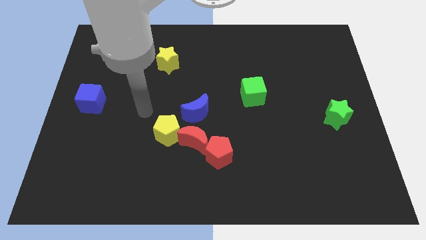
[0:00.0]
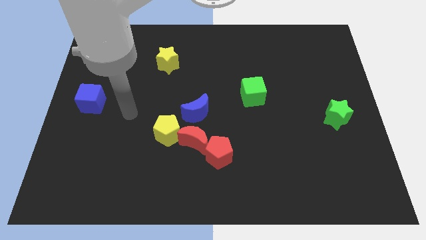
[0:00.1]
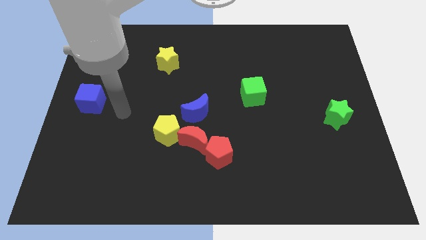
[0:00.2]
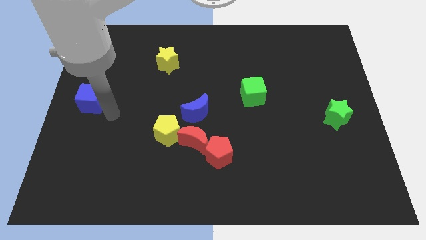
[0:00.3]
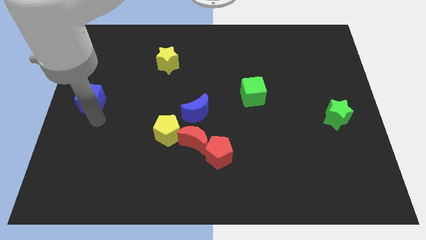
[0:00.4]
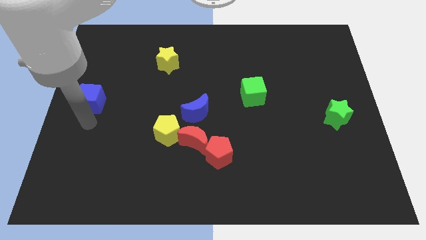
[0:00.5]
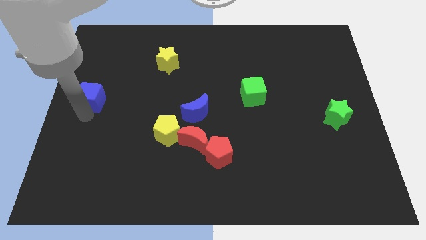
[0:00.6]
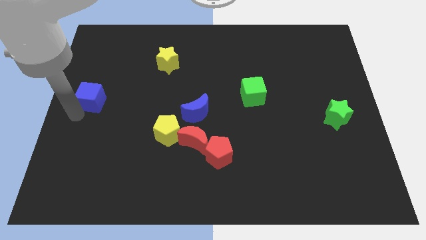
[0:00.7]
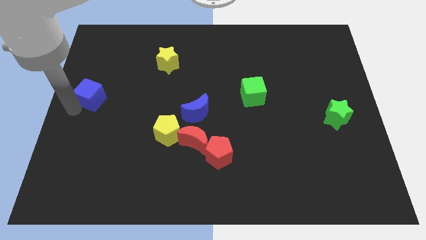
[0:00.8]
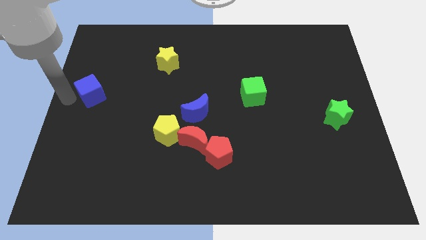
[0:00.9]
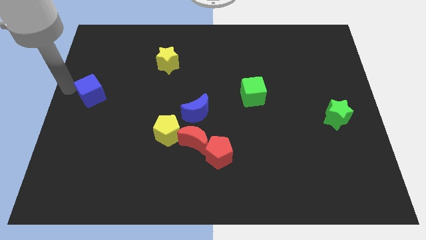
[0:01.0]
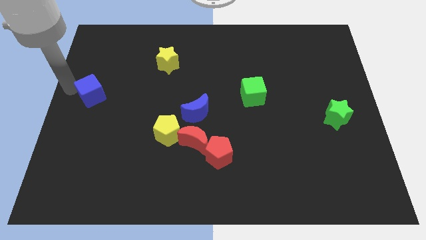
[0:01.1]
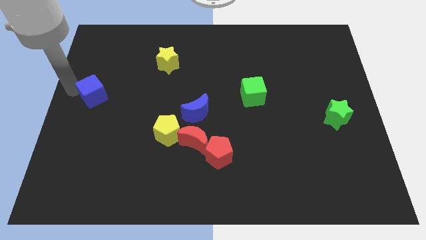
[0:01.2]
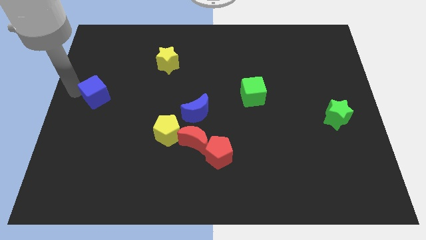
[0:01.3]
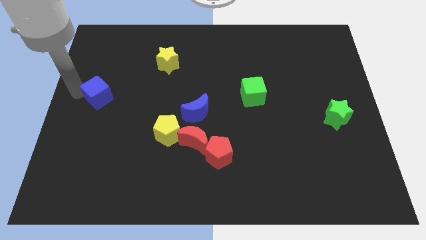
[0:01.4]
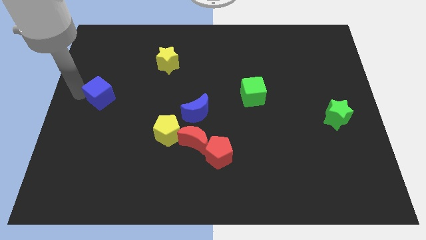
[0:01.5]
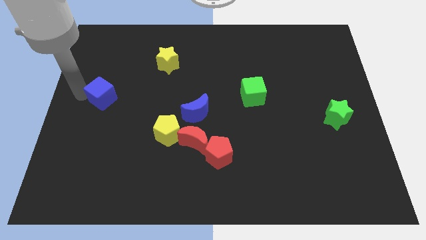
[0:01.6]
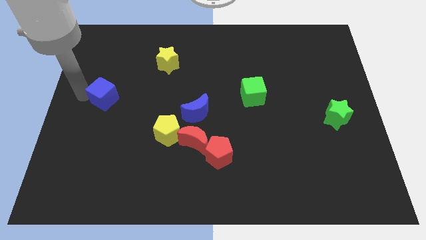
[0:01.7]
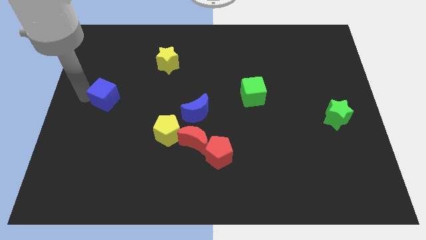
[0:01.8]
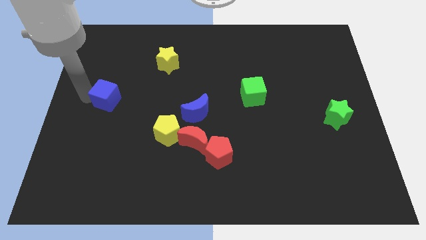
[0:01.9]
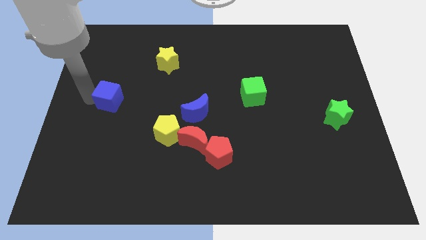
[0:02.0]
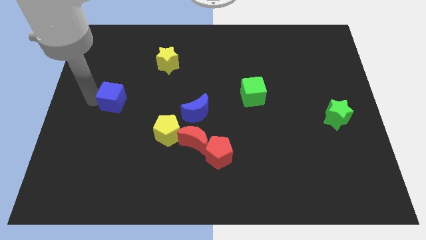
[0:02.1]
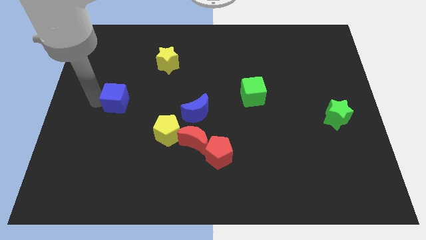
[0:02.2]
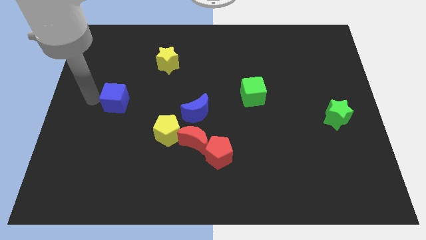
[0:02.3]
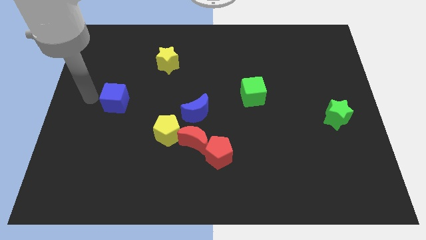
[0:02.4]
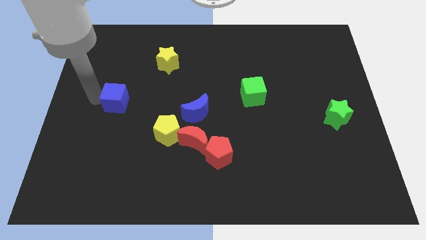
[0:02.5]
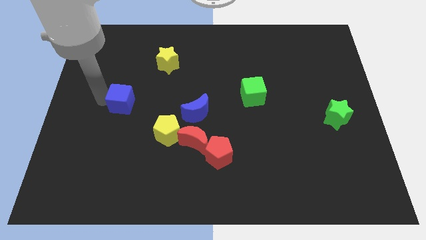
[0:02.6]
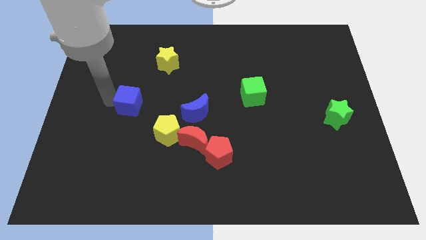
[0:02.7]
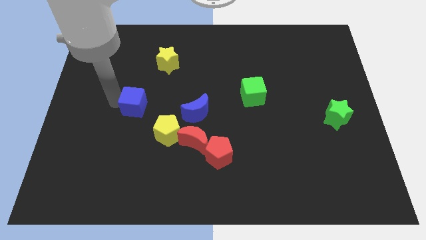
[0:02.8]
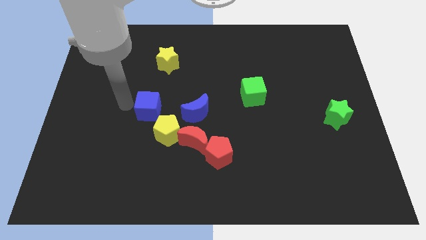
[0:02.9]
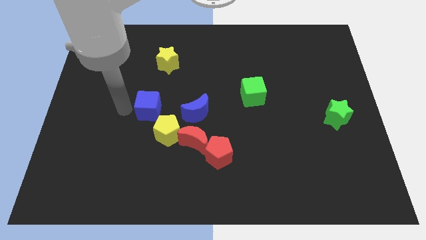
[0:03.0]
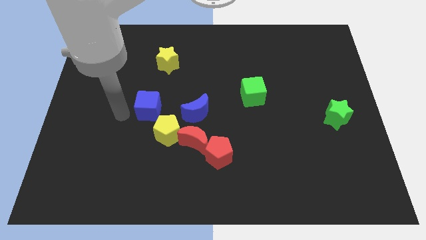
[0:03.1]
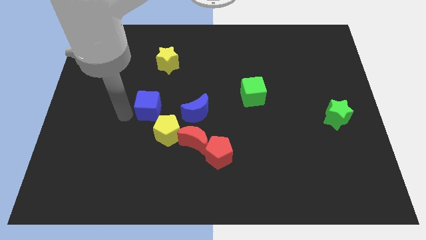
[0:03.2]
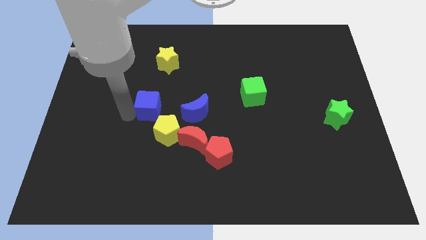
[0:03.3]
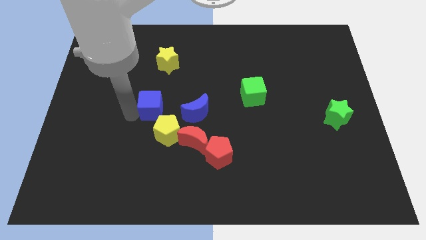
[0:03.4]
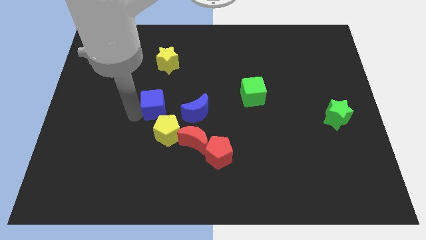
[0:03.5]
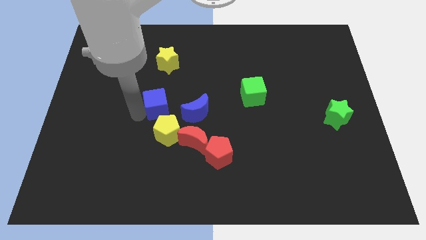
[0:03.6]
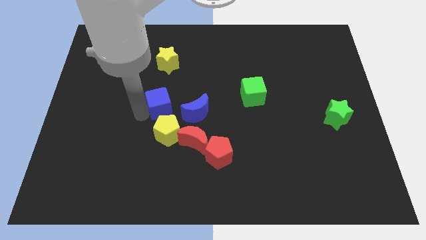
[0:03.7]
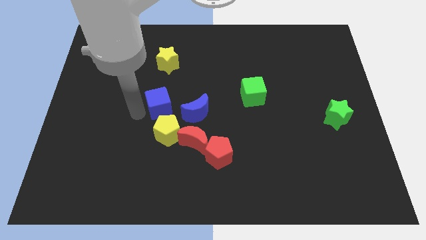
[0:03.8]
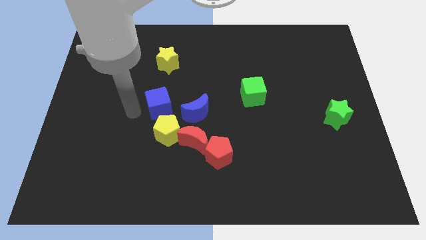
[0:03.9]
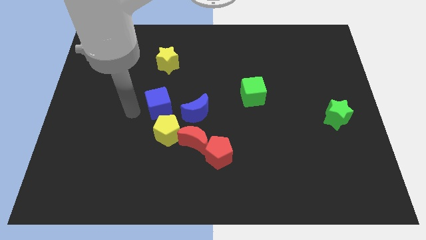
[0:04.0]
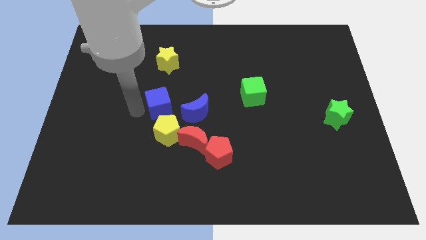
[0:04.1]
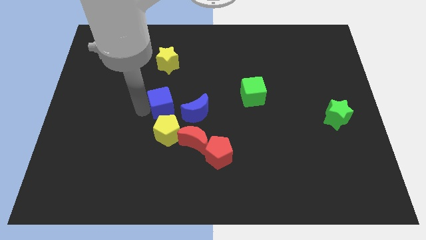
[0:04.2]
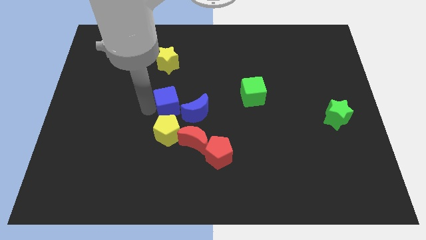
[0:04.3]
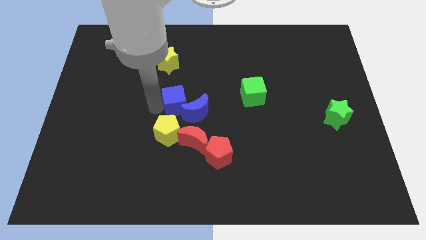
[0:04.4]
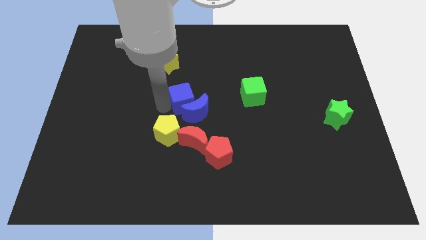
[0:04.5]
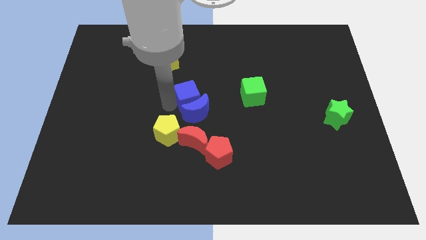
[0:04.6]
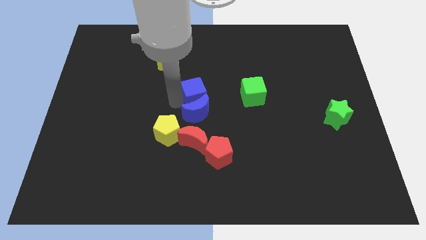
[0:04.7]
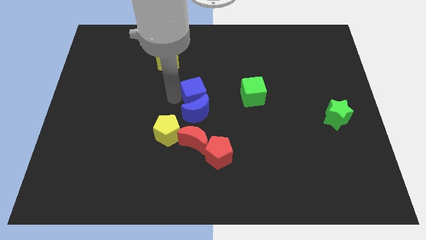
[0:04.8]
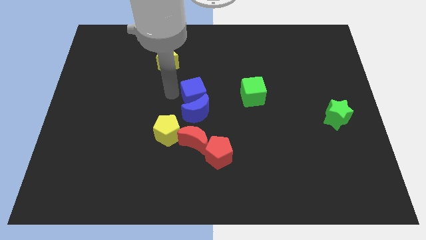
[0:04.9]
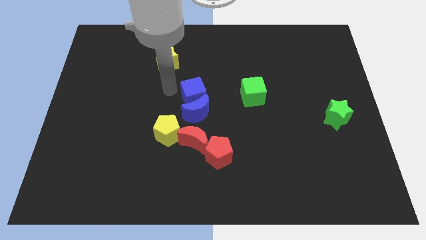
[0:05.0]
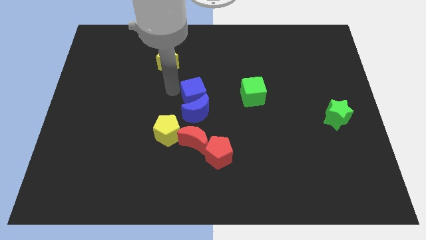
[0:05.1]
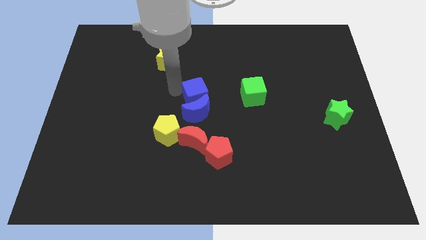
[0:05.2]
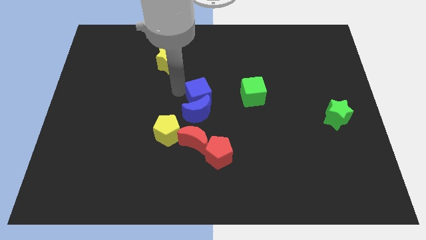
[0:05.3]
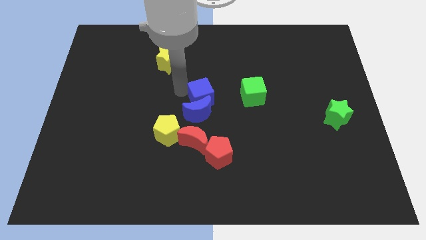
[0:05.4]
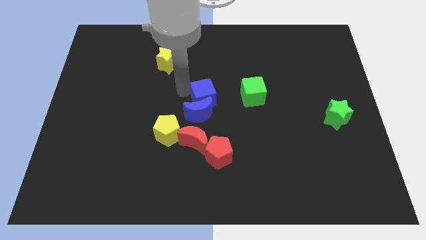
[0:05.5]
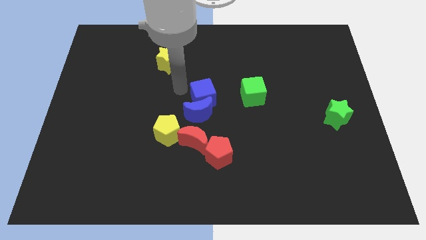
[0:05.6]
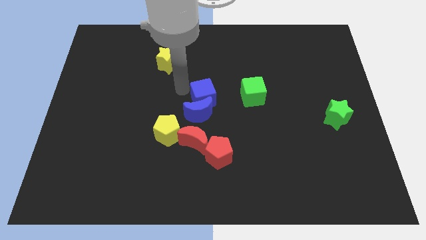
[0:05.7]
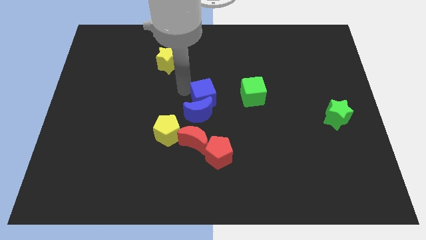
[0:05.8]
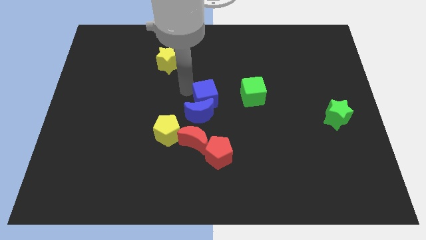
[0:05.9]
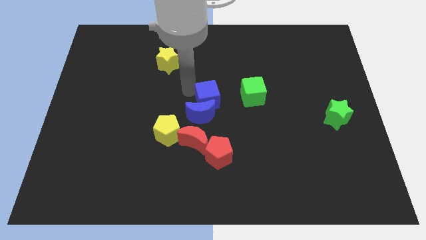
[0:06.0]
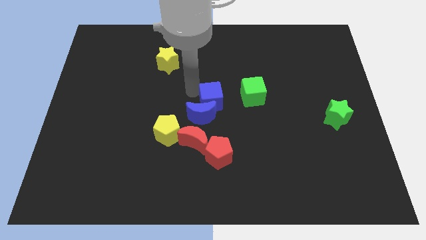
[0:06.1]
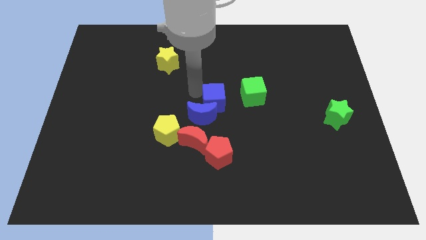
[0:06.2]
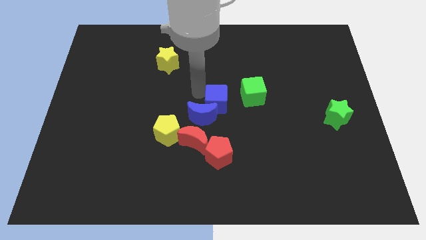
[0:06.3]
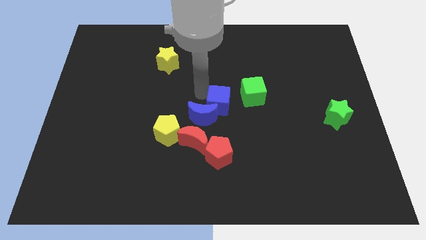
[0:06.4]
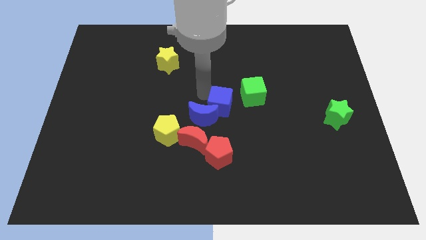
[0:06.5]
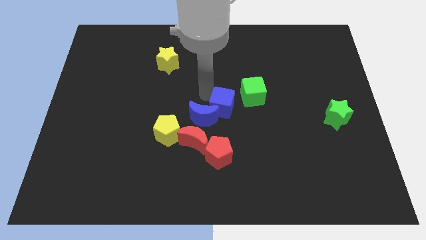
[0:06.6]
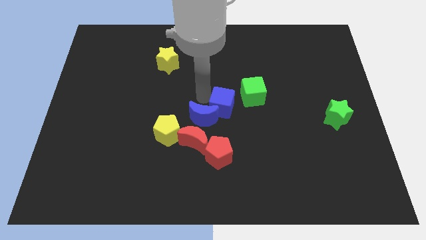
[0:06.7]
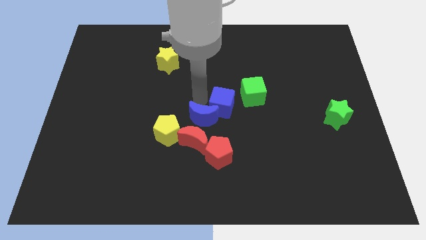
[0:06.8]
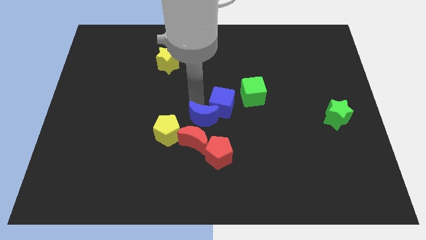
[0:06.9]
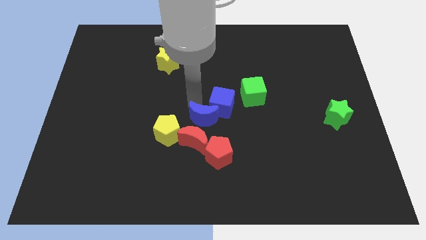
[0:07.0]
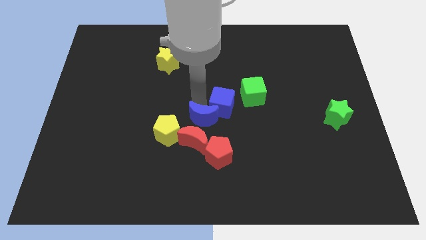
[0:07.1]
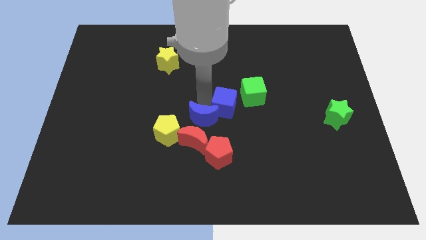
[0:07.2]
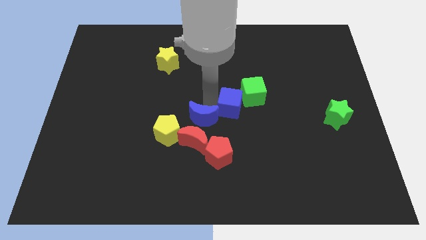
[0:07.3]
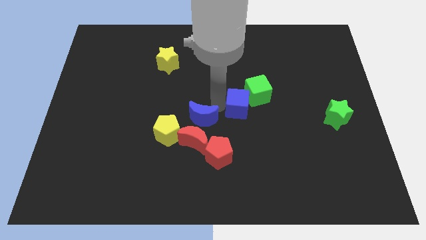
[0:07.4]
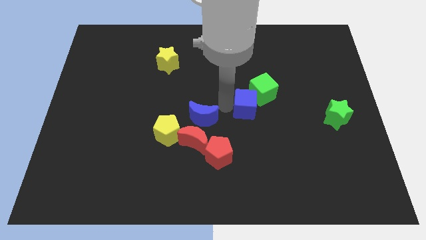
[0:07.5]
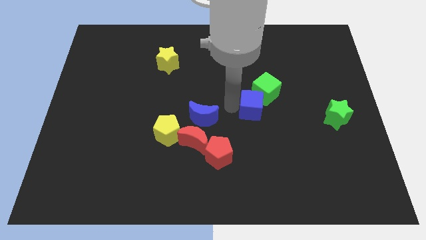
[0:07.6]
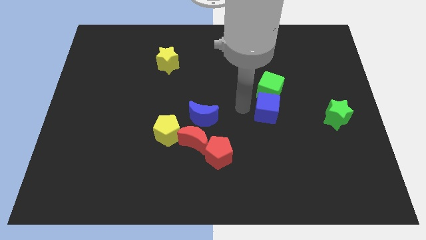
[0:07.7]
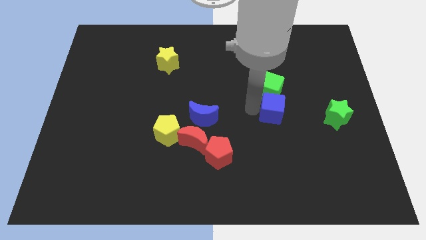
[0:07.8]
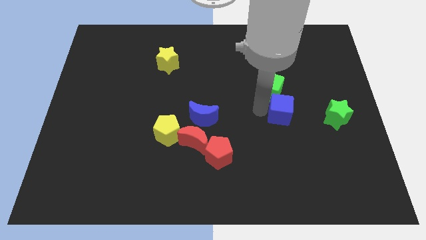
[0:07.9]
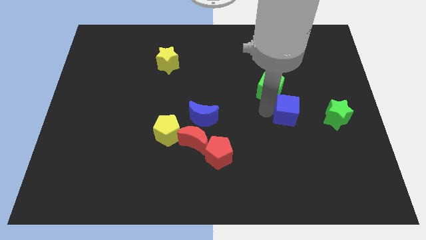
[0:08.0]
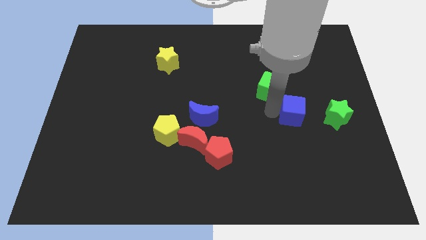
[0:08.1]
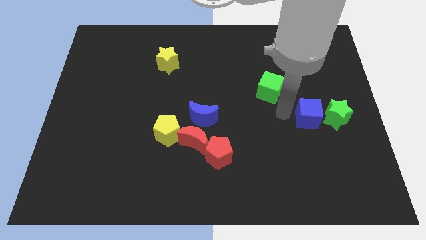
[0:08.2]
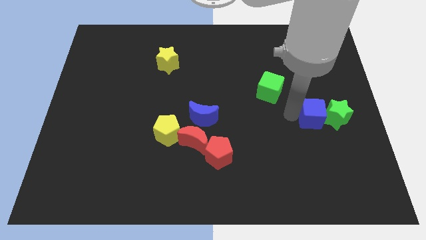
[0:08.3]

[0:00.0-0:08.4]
move the blue cube to the green star
